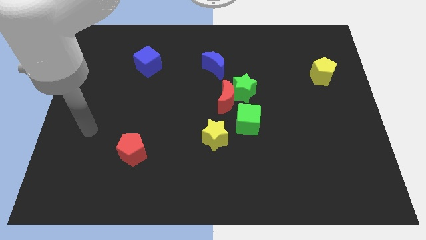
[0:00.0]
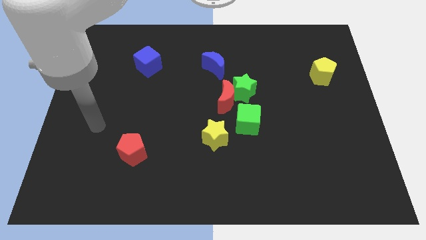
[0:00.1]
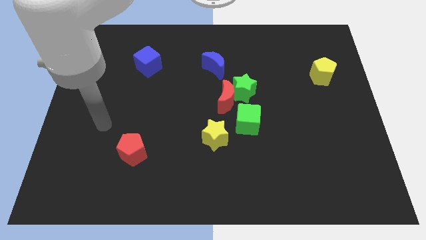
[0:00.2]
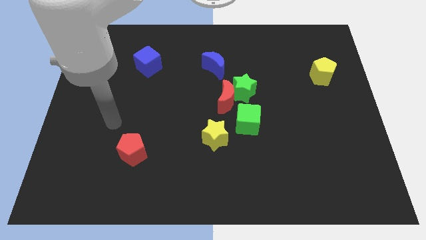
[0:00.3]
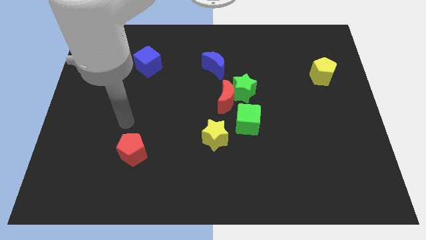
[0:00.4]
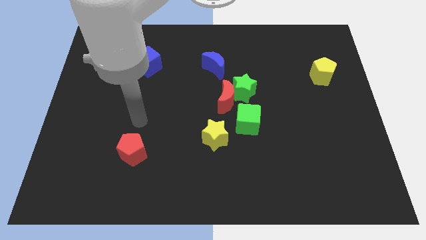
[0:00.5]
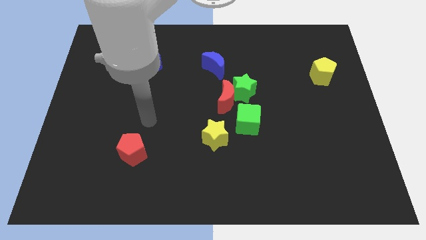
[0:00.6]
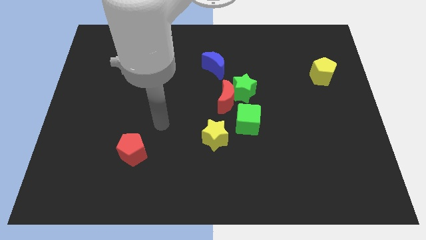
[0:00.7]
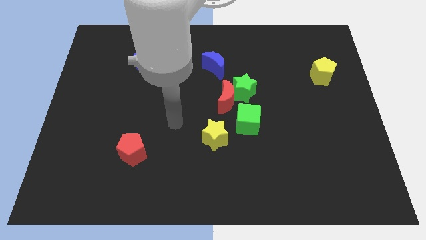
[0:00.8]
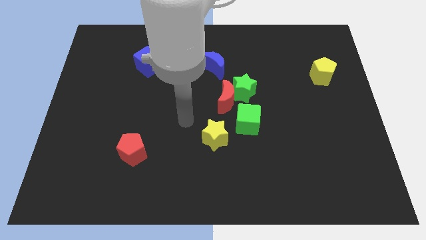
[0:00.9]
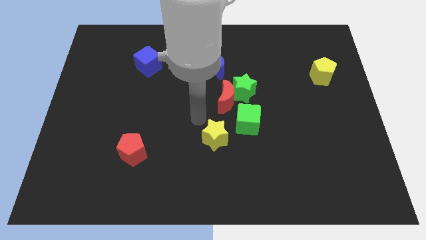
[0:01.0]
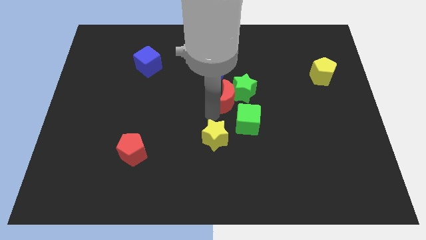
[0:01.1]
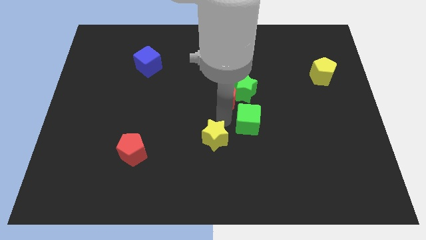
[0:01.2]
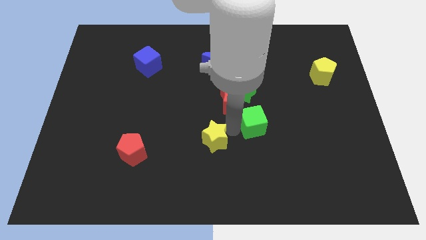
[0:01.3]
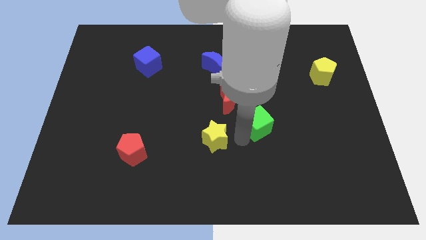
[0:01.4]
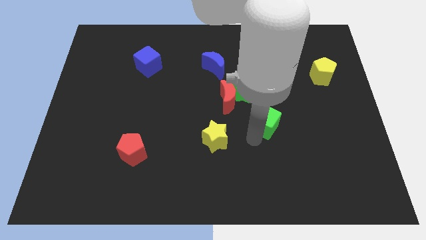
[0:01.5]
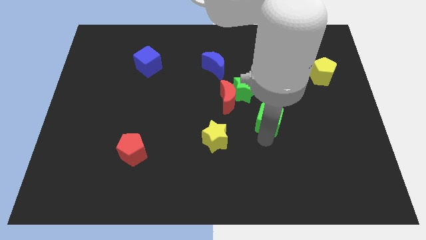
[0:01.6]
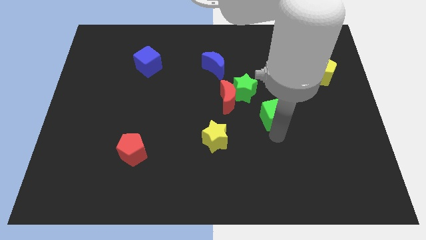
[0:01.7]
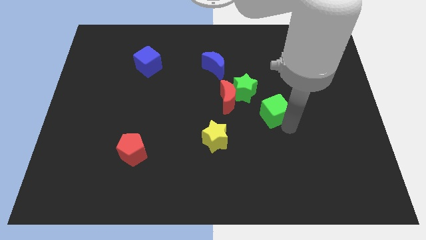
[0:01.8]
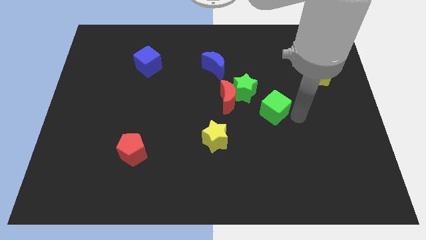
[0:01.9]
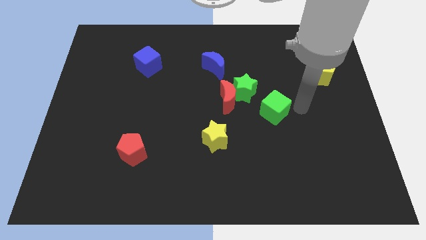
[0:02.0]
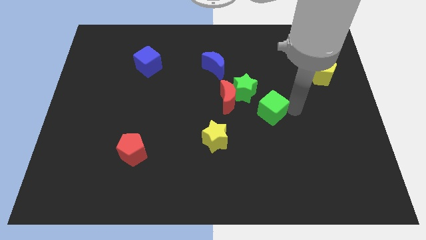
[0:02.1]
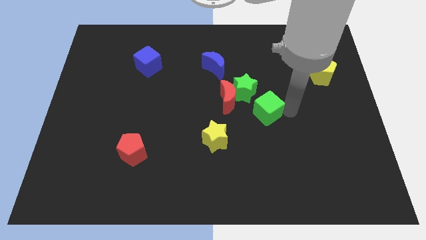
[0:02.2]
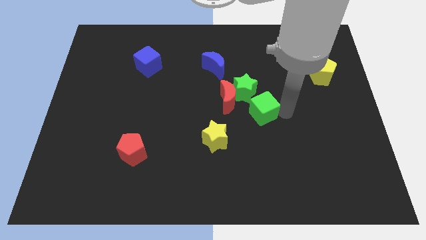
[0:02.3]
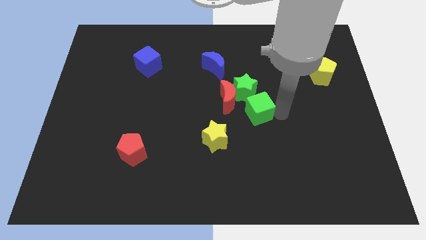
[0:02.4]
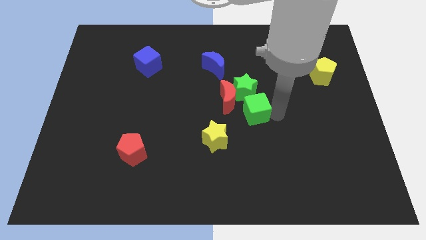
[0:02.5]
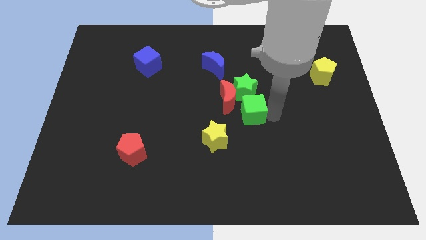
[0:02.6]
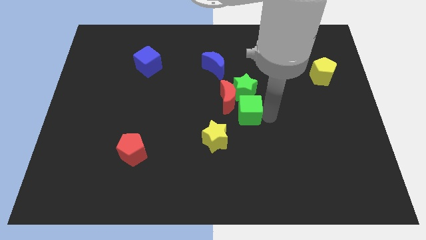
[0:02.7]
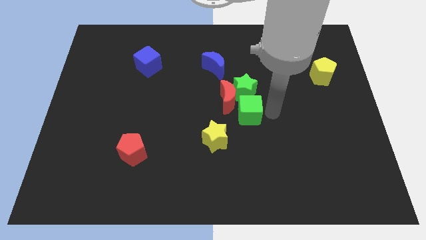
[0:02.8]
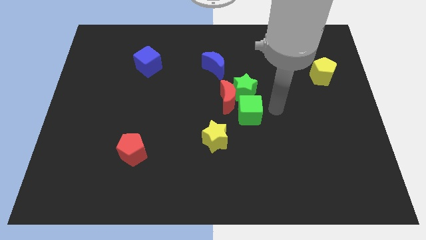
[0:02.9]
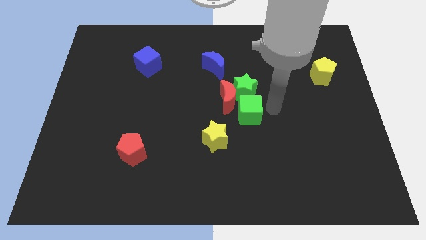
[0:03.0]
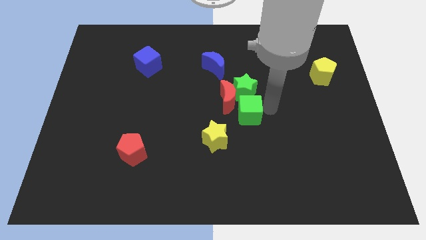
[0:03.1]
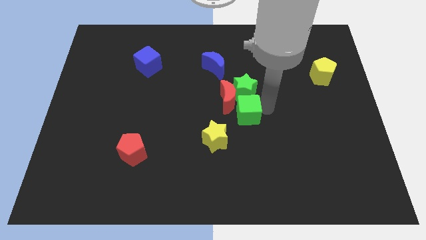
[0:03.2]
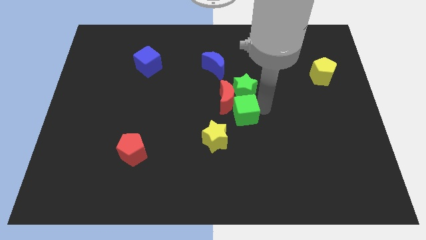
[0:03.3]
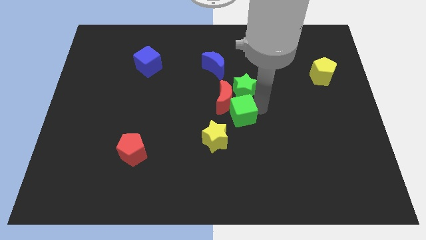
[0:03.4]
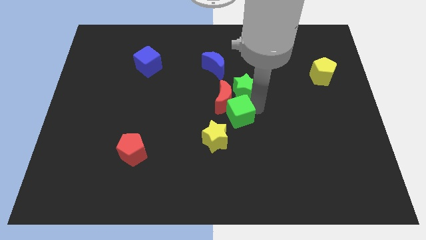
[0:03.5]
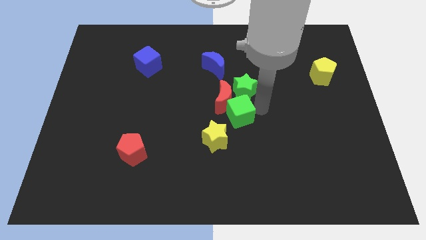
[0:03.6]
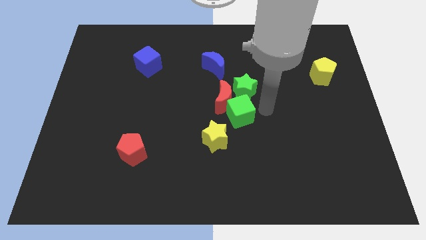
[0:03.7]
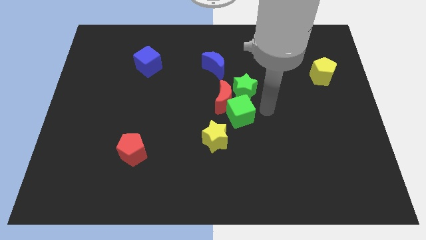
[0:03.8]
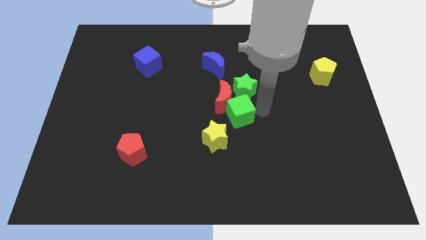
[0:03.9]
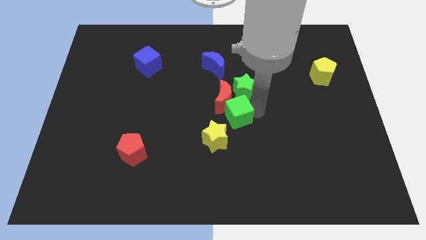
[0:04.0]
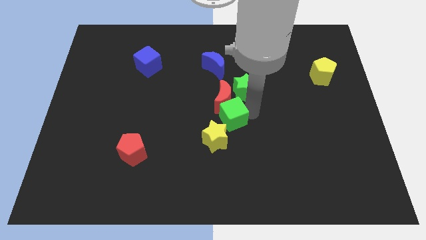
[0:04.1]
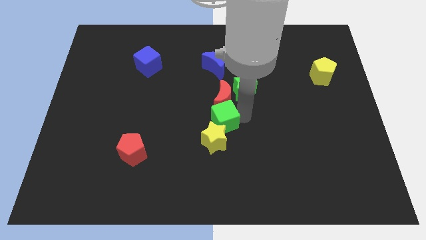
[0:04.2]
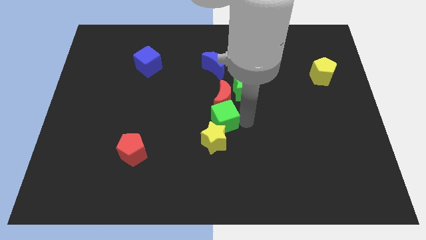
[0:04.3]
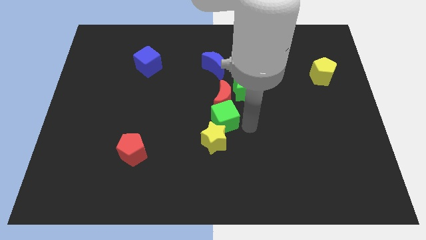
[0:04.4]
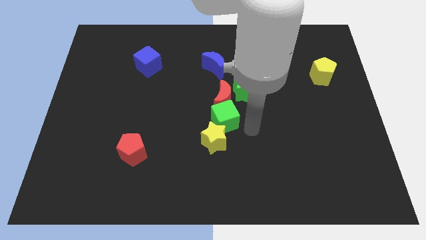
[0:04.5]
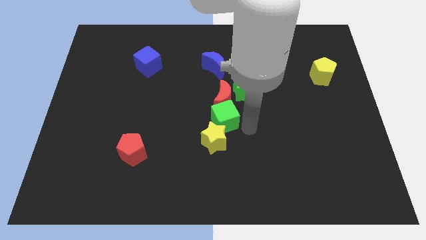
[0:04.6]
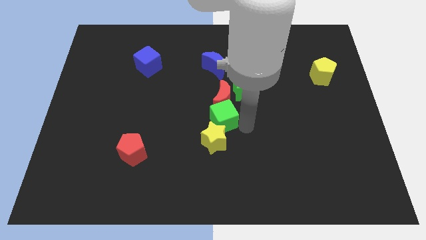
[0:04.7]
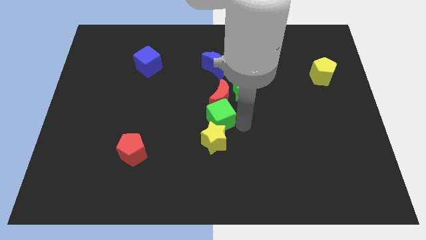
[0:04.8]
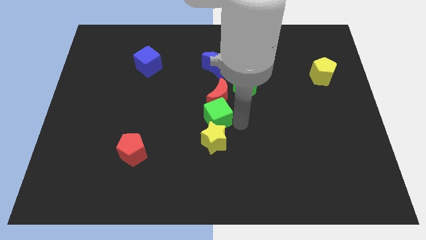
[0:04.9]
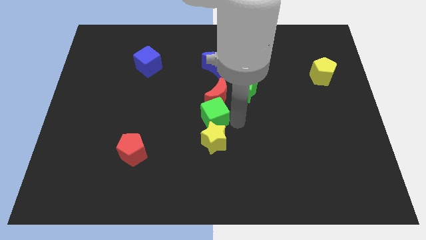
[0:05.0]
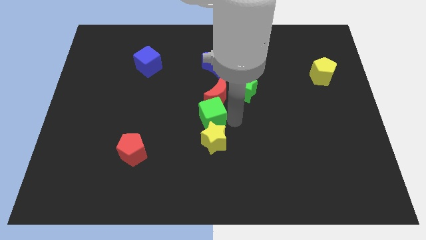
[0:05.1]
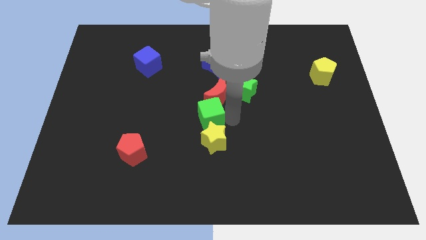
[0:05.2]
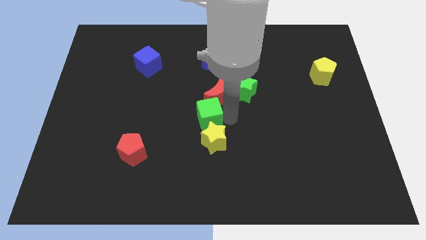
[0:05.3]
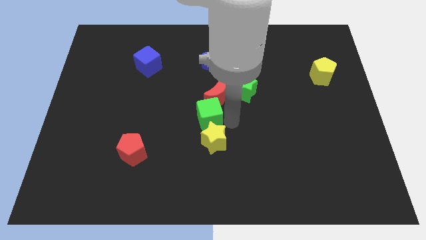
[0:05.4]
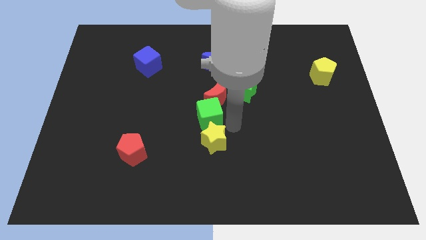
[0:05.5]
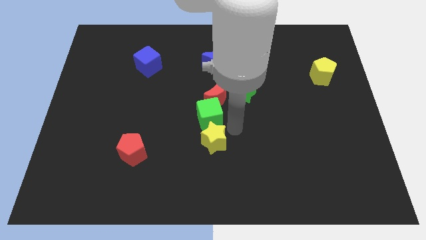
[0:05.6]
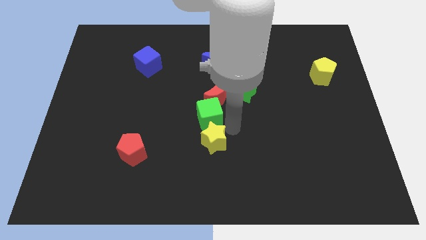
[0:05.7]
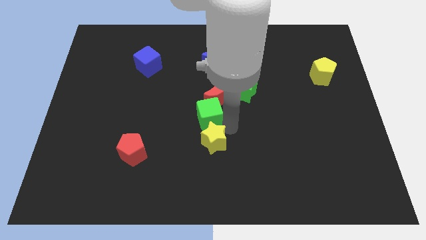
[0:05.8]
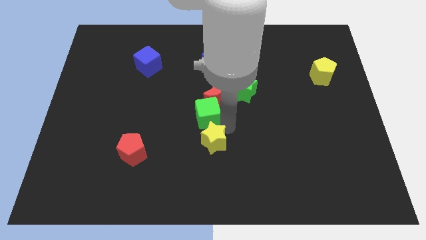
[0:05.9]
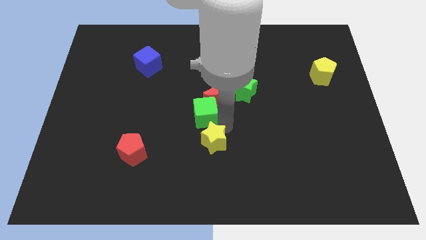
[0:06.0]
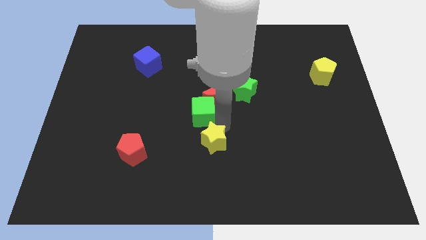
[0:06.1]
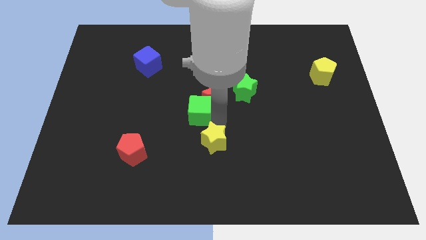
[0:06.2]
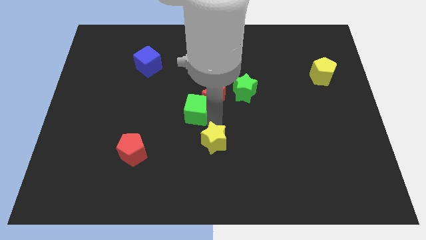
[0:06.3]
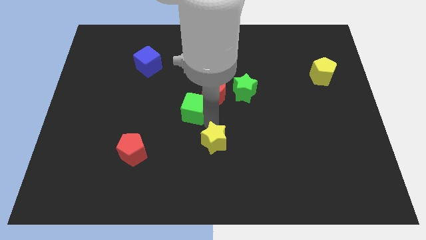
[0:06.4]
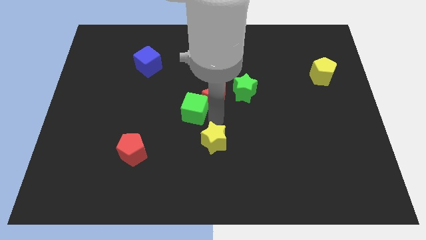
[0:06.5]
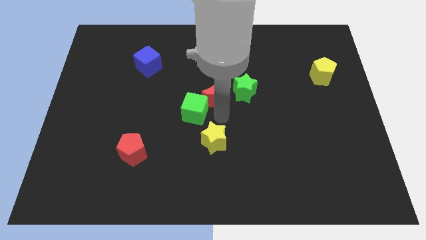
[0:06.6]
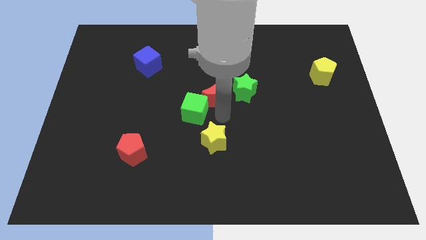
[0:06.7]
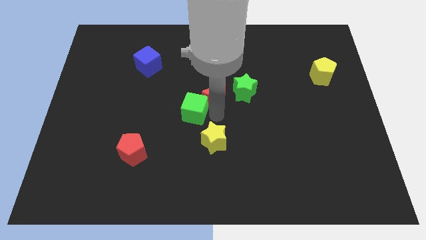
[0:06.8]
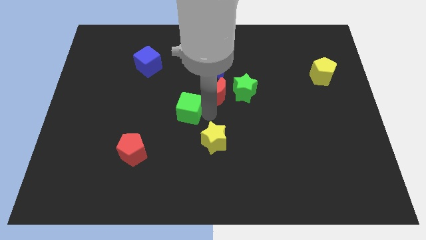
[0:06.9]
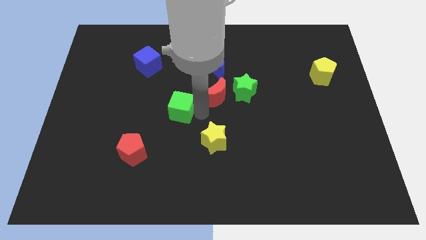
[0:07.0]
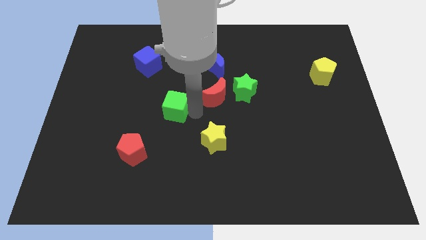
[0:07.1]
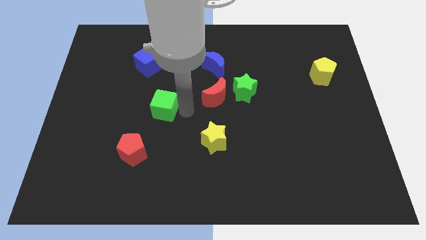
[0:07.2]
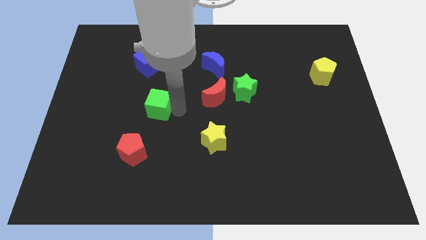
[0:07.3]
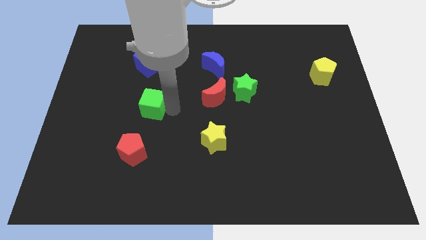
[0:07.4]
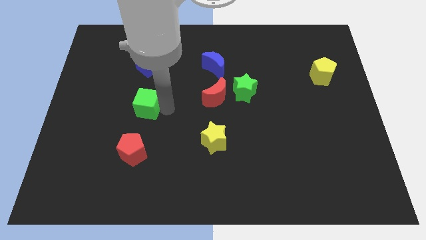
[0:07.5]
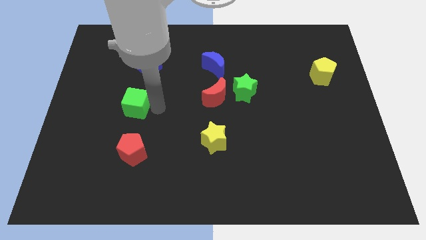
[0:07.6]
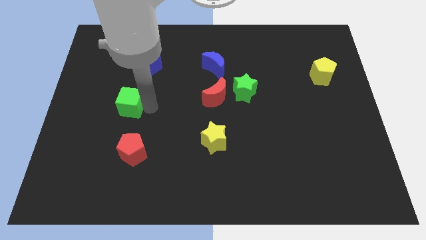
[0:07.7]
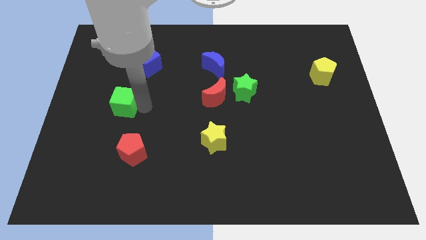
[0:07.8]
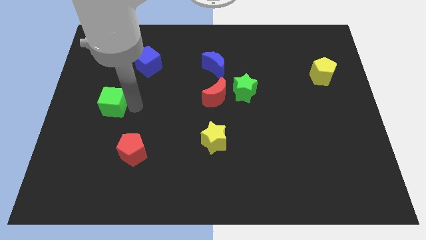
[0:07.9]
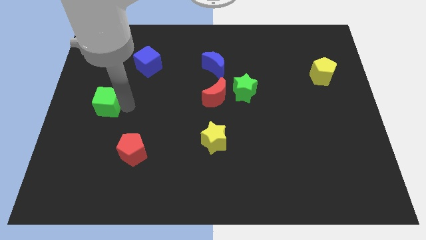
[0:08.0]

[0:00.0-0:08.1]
move the green cube to the left side of the board
